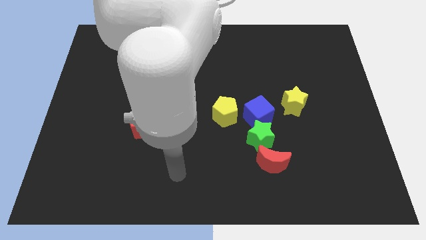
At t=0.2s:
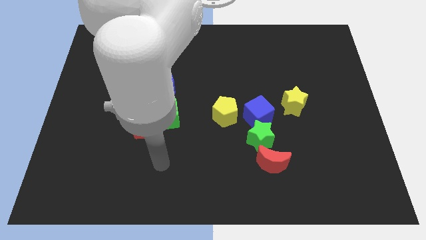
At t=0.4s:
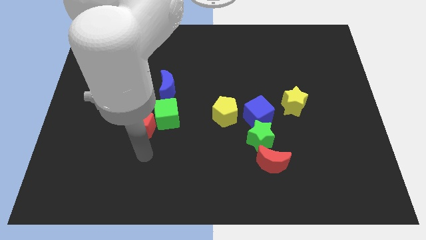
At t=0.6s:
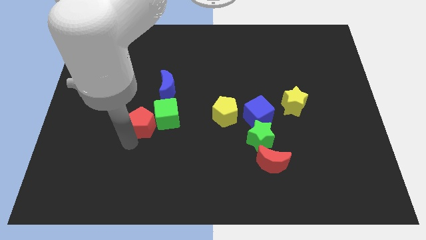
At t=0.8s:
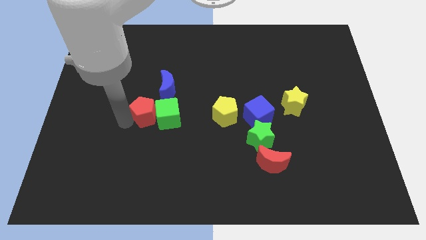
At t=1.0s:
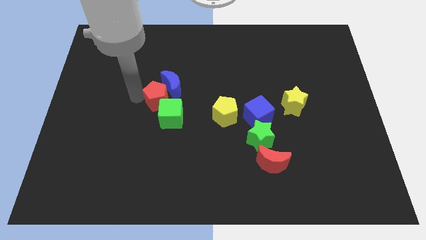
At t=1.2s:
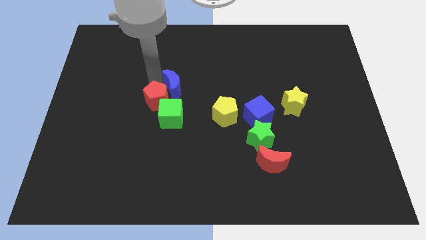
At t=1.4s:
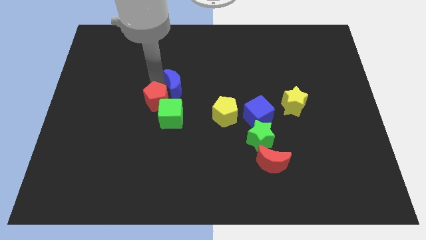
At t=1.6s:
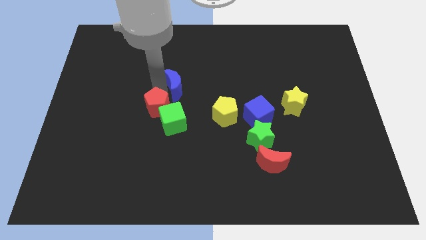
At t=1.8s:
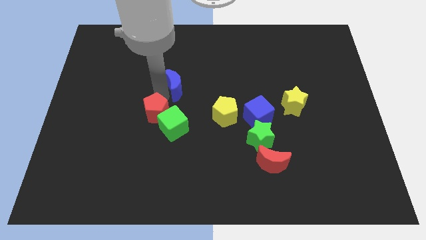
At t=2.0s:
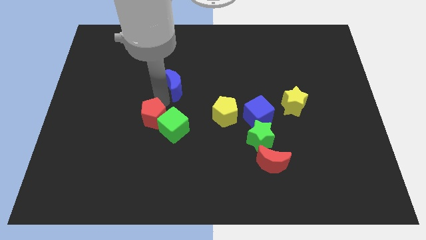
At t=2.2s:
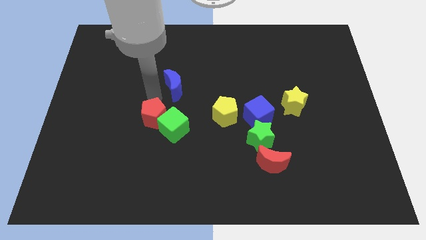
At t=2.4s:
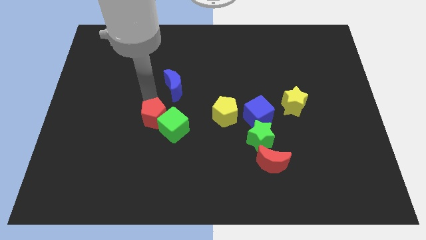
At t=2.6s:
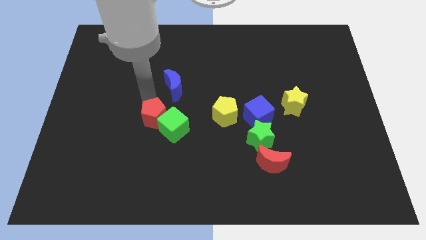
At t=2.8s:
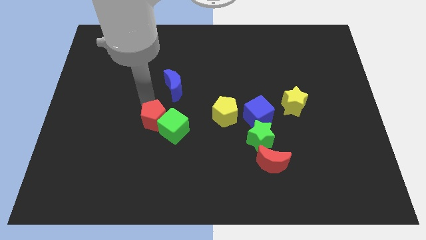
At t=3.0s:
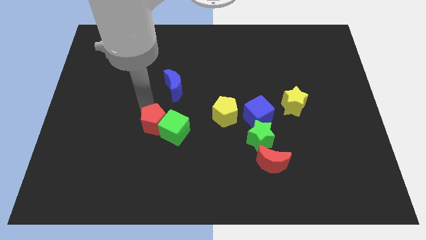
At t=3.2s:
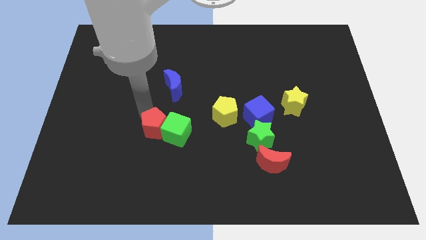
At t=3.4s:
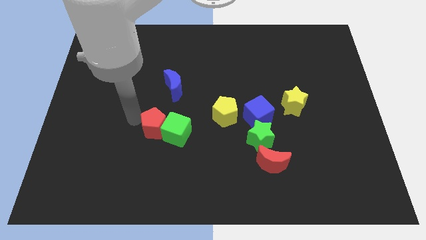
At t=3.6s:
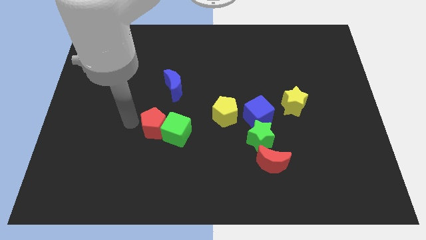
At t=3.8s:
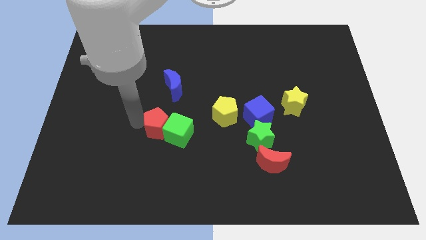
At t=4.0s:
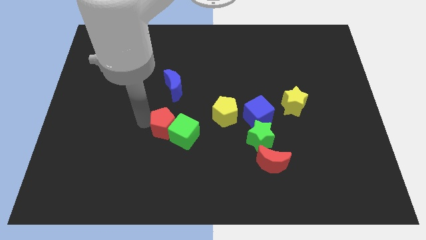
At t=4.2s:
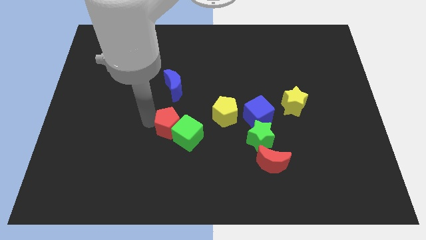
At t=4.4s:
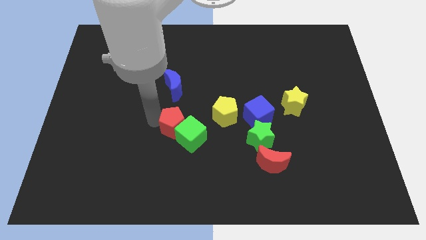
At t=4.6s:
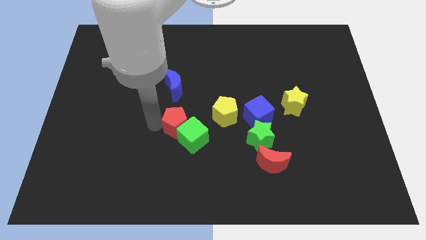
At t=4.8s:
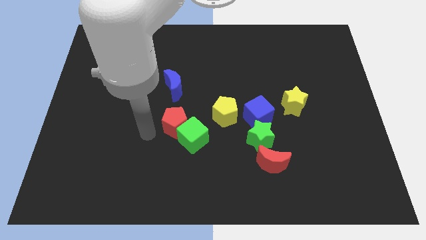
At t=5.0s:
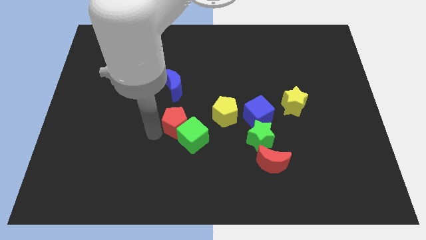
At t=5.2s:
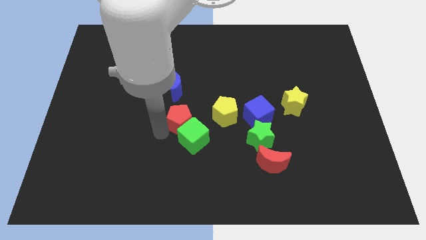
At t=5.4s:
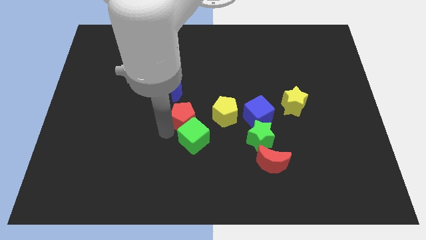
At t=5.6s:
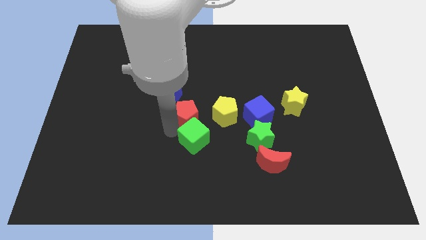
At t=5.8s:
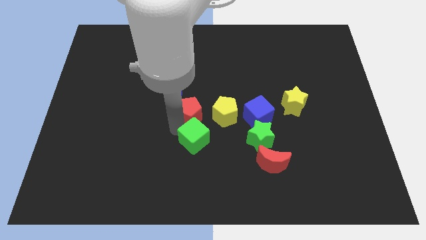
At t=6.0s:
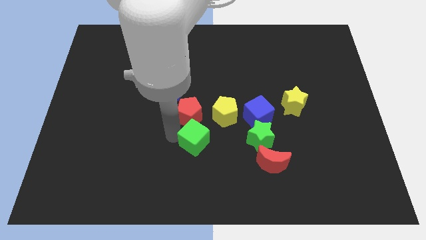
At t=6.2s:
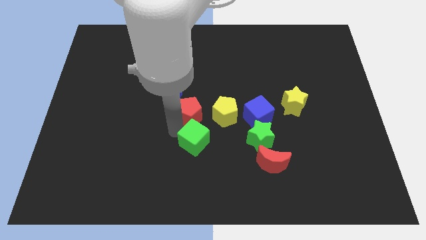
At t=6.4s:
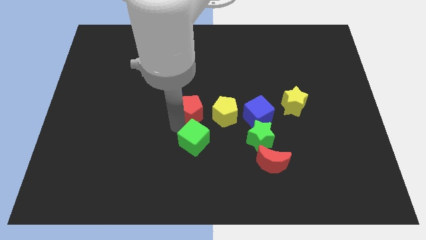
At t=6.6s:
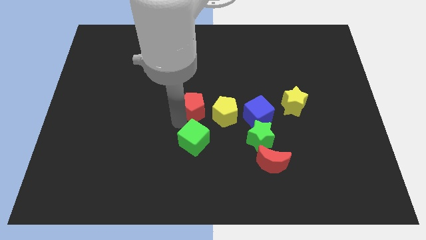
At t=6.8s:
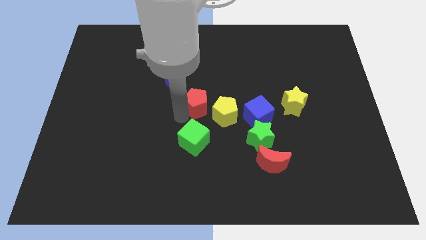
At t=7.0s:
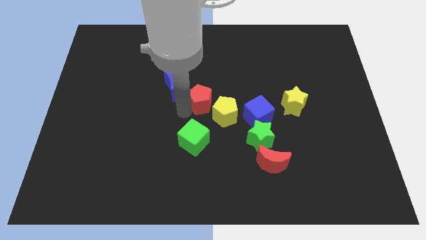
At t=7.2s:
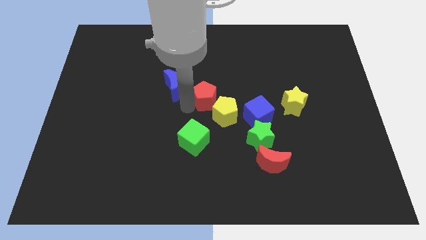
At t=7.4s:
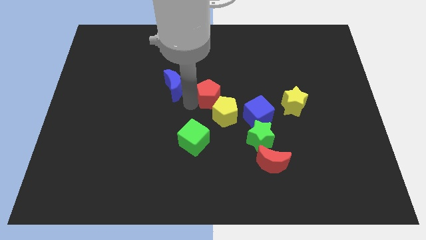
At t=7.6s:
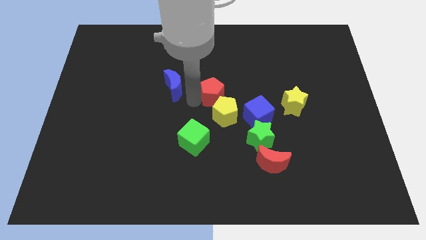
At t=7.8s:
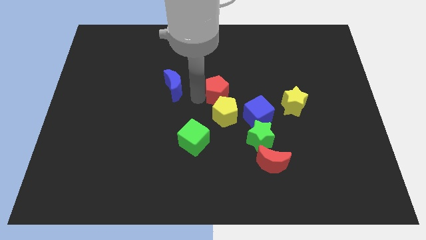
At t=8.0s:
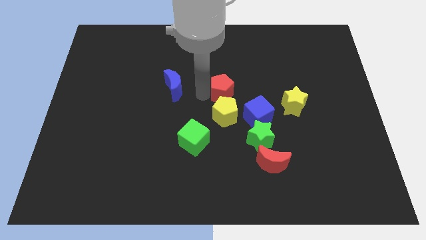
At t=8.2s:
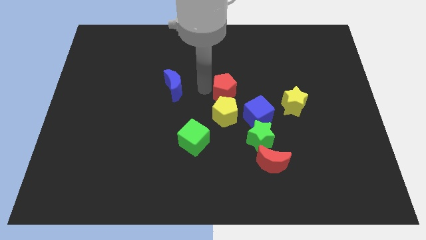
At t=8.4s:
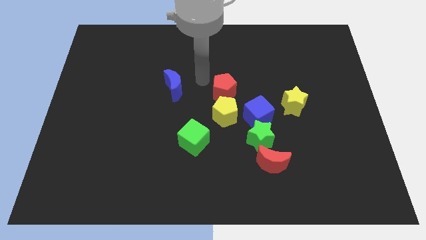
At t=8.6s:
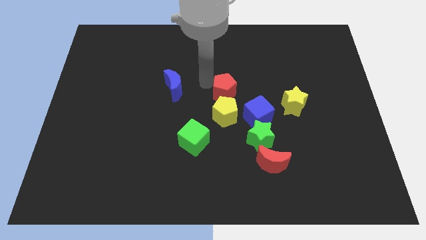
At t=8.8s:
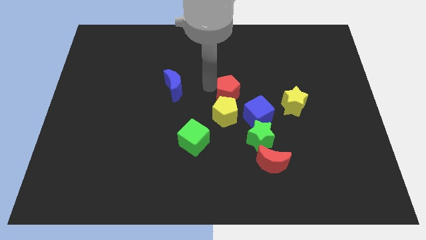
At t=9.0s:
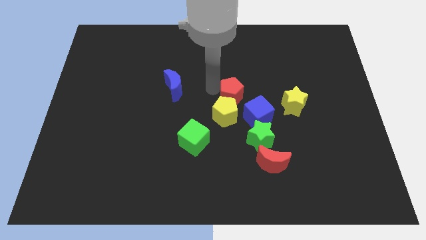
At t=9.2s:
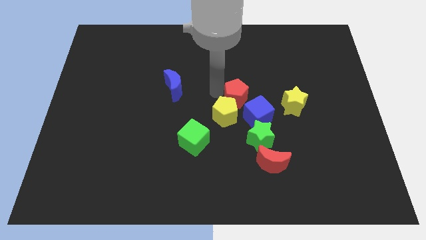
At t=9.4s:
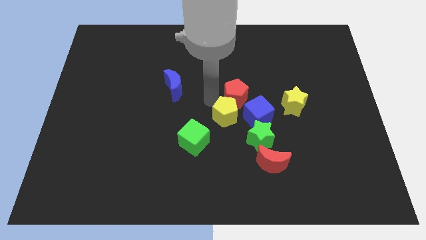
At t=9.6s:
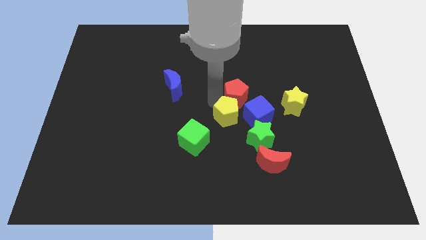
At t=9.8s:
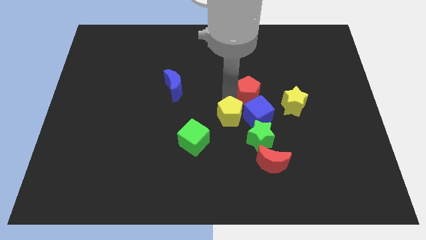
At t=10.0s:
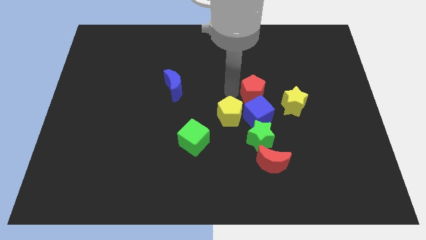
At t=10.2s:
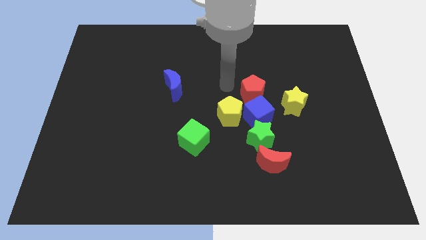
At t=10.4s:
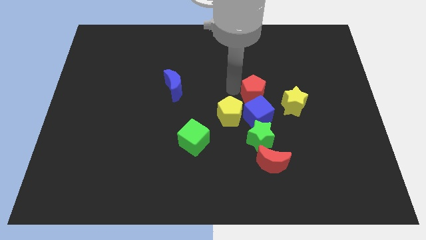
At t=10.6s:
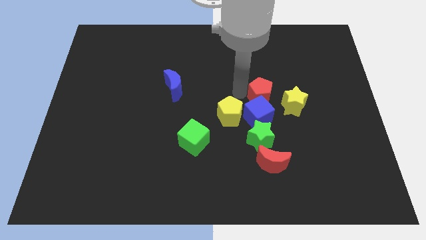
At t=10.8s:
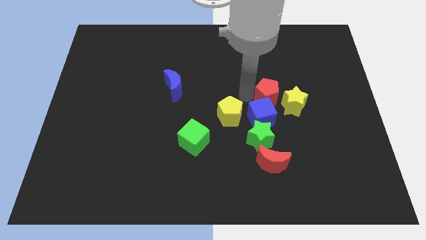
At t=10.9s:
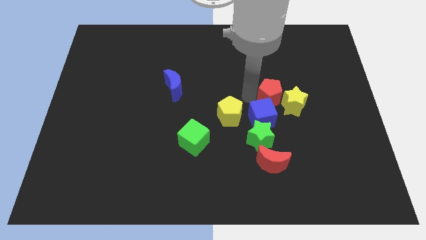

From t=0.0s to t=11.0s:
put the red pentagon towards the yellow star
